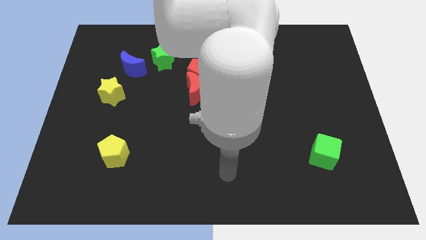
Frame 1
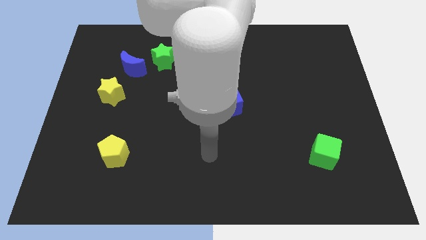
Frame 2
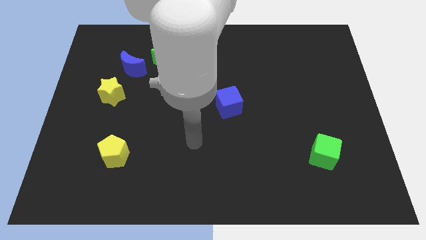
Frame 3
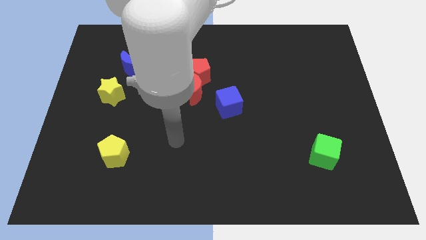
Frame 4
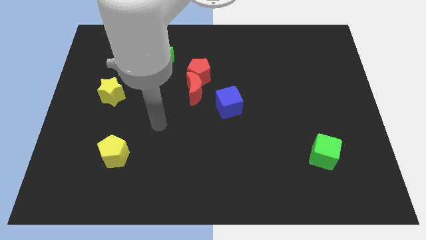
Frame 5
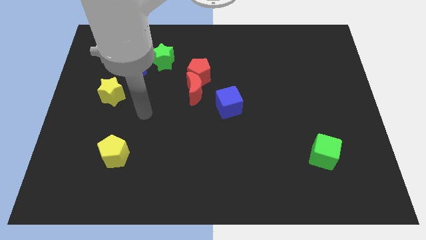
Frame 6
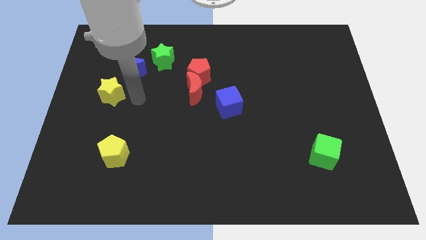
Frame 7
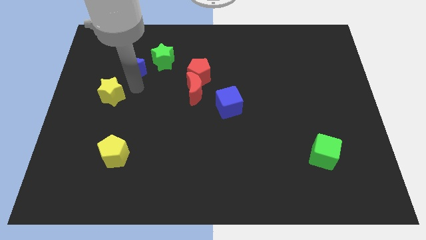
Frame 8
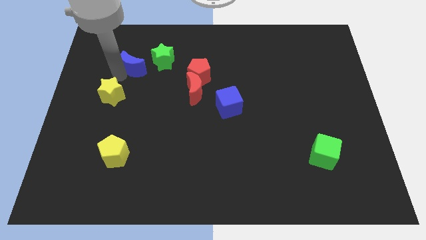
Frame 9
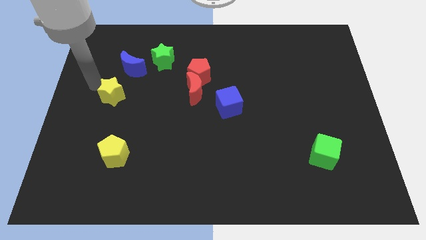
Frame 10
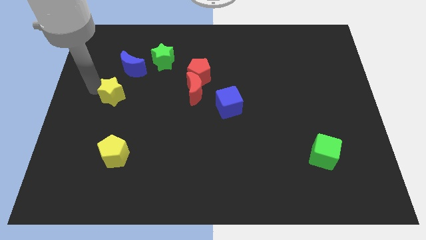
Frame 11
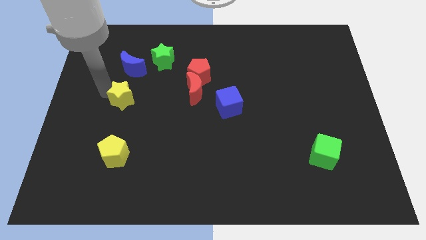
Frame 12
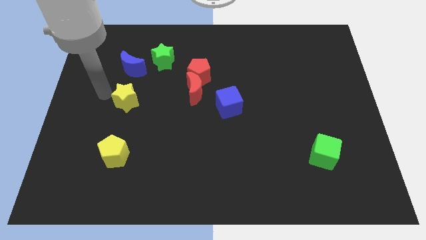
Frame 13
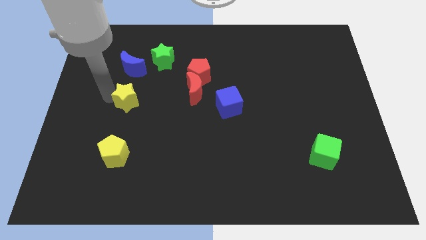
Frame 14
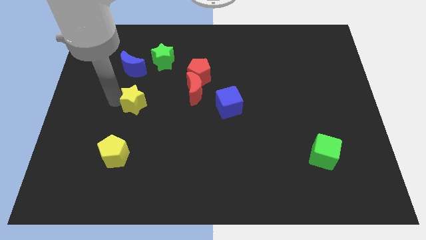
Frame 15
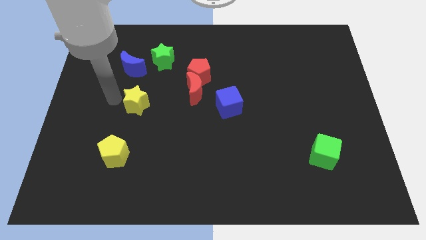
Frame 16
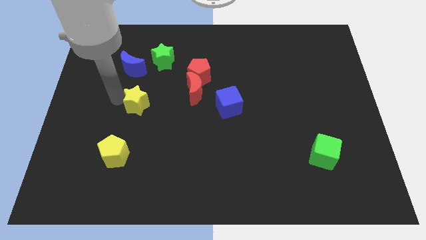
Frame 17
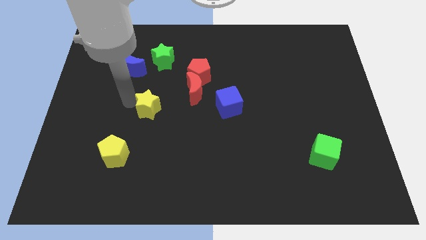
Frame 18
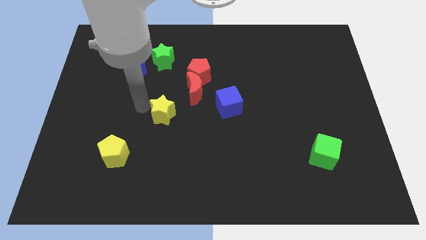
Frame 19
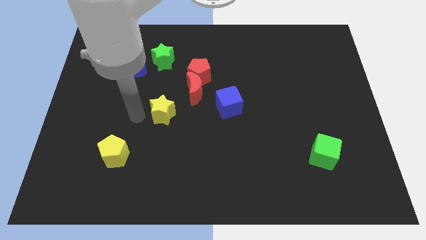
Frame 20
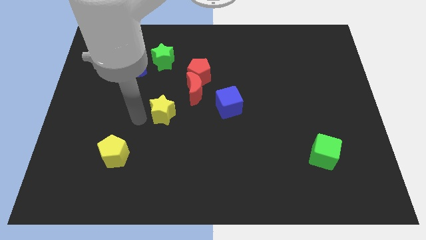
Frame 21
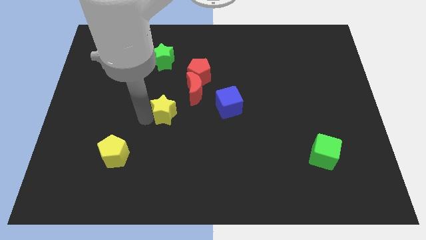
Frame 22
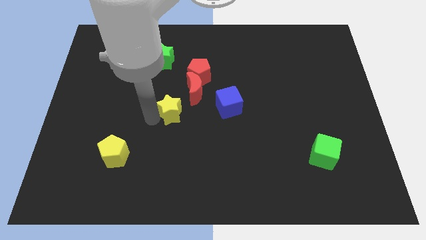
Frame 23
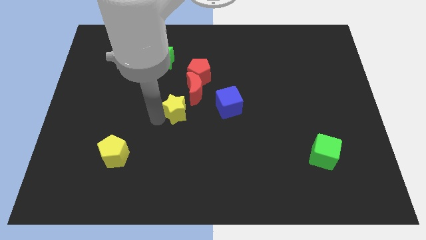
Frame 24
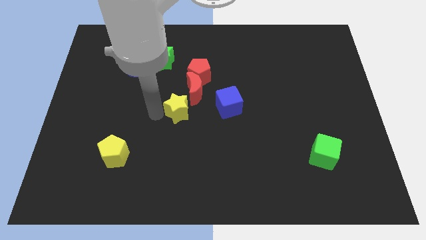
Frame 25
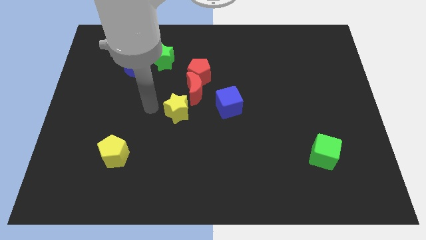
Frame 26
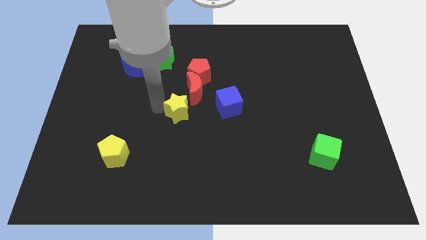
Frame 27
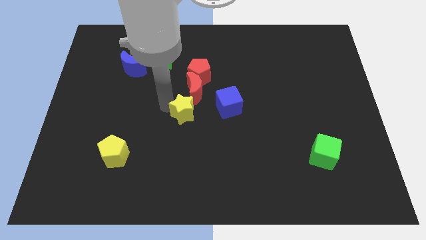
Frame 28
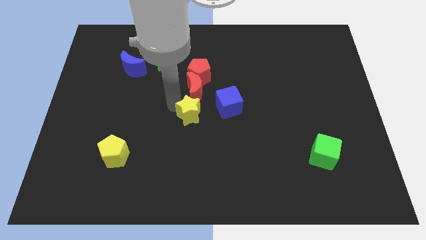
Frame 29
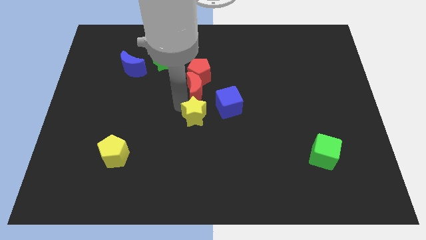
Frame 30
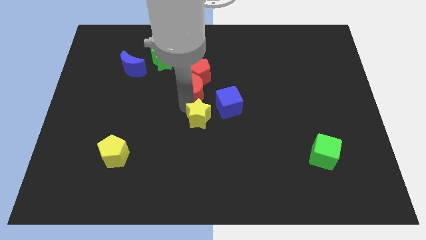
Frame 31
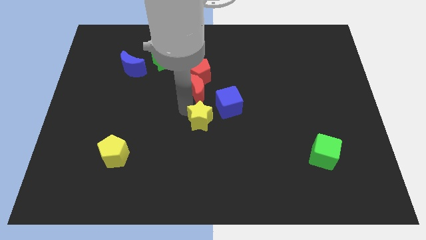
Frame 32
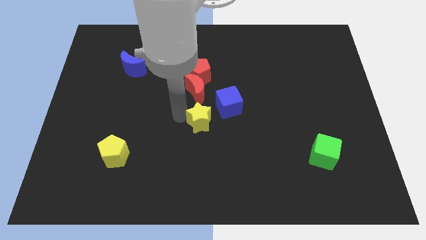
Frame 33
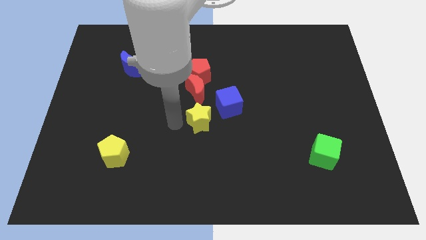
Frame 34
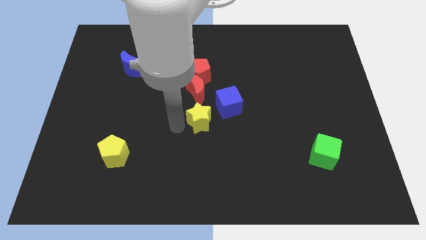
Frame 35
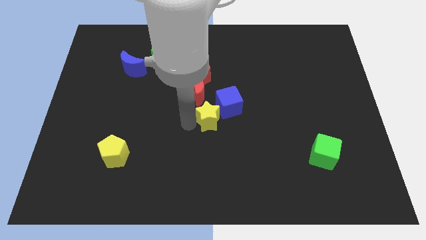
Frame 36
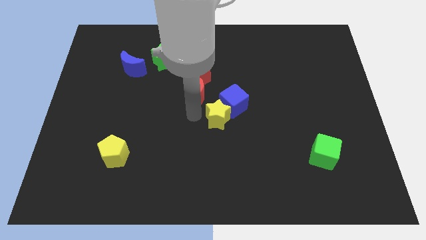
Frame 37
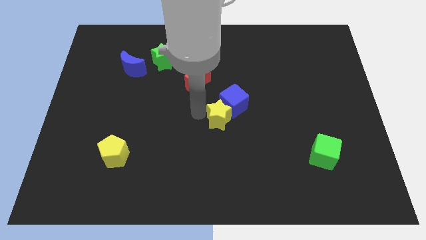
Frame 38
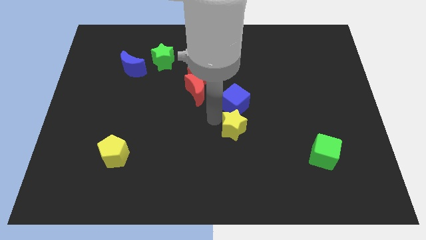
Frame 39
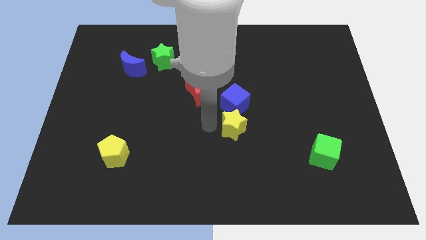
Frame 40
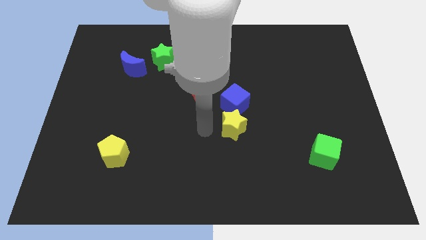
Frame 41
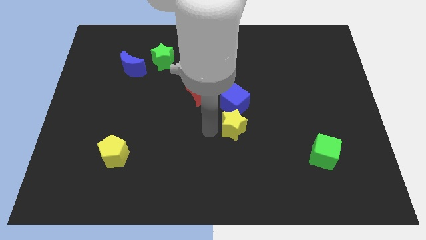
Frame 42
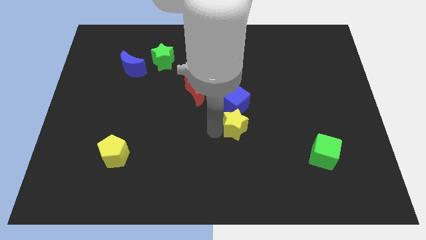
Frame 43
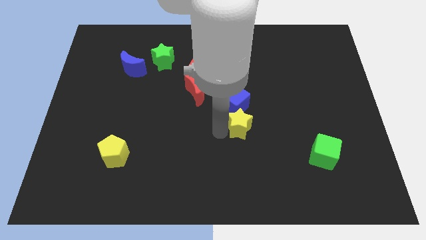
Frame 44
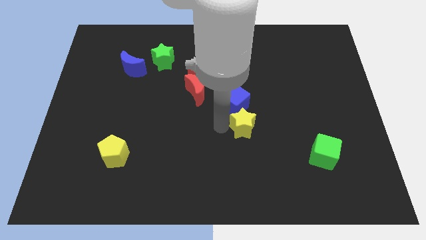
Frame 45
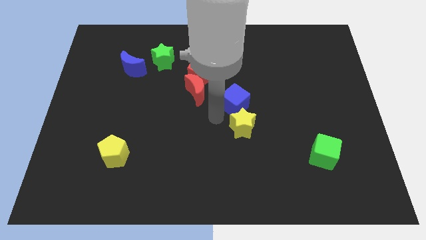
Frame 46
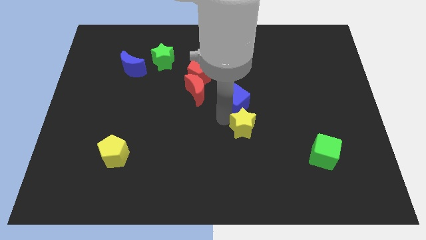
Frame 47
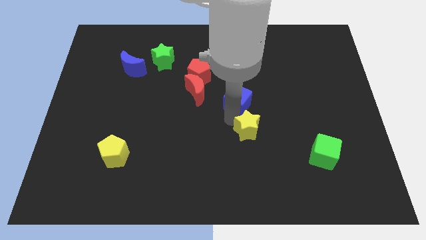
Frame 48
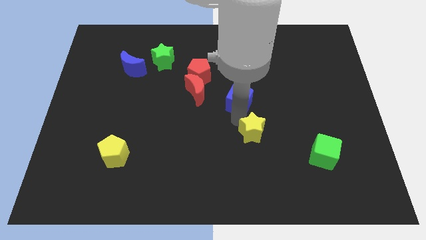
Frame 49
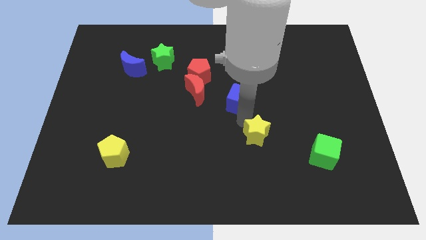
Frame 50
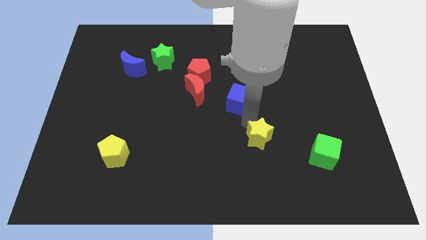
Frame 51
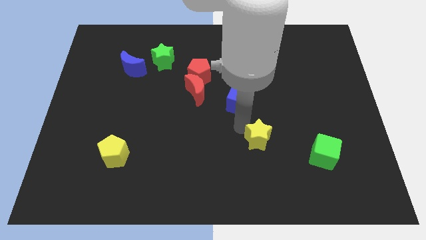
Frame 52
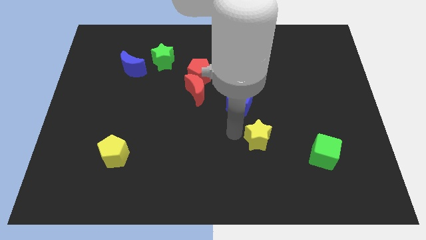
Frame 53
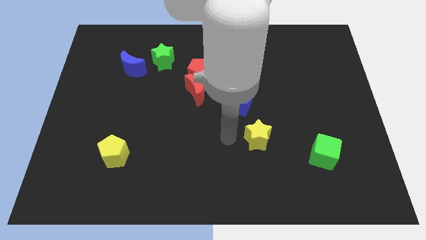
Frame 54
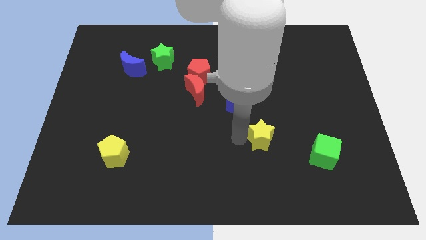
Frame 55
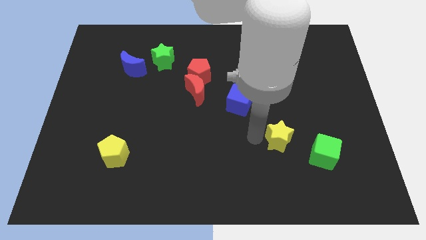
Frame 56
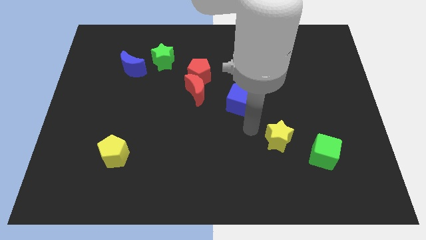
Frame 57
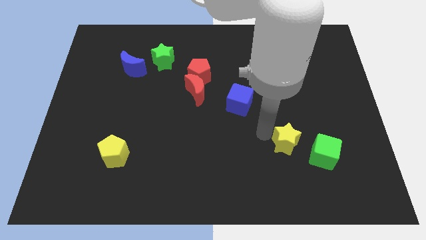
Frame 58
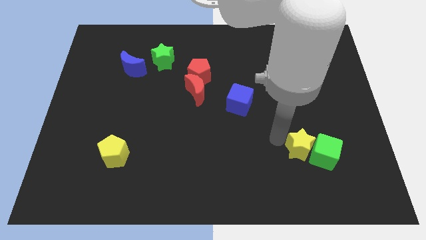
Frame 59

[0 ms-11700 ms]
move the yellow star close to the green cube

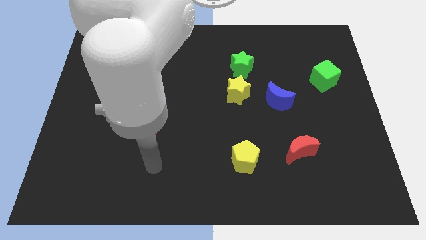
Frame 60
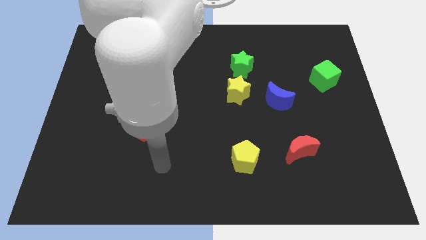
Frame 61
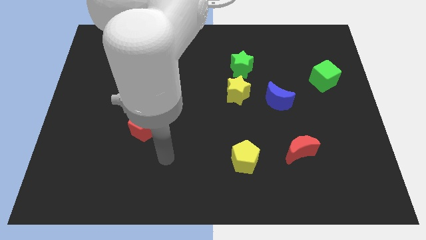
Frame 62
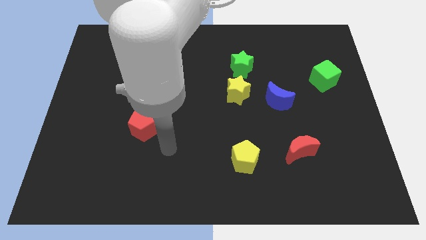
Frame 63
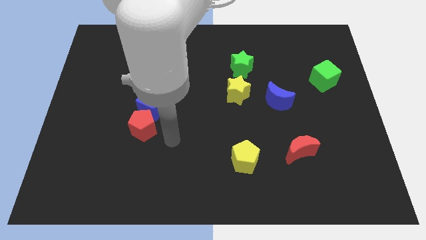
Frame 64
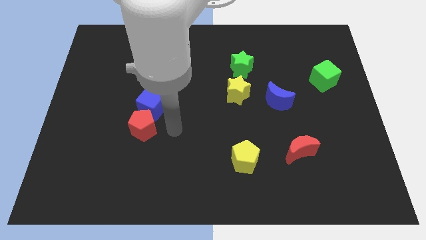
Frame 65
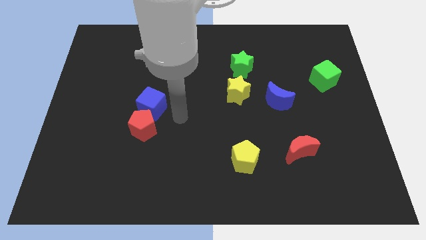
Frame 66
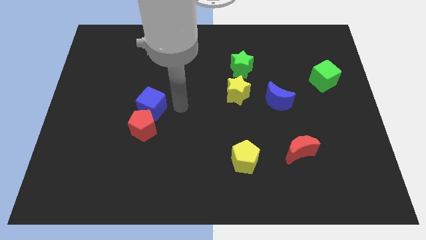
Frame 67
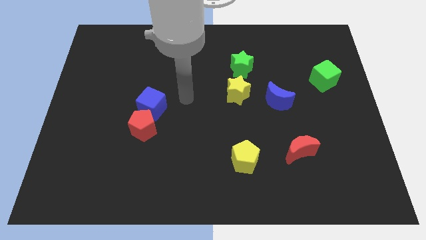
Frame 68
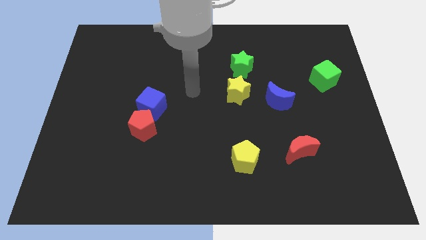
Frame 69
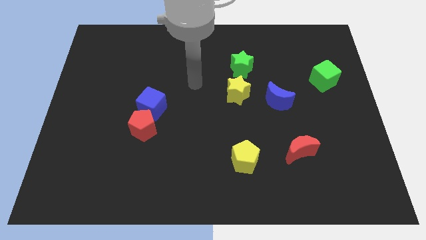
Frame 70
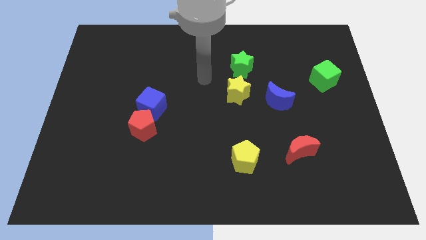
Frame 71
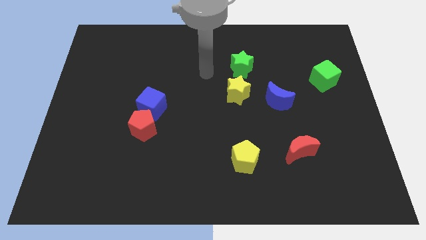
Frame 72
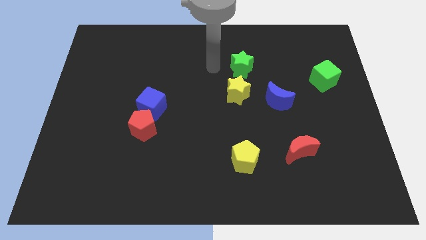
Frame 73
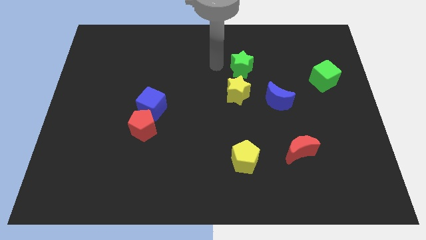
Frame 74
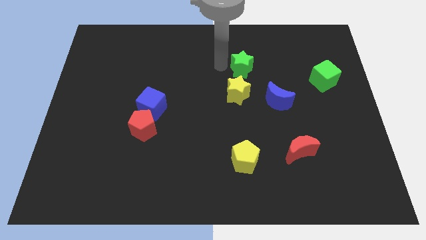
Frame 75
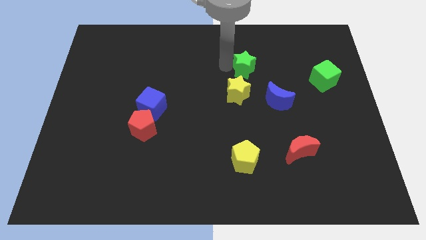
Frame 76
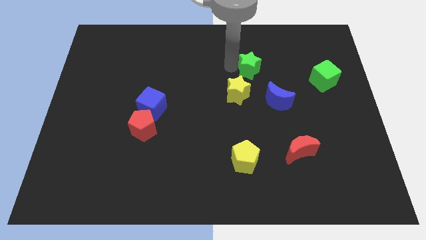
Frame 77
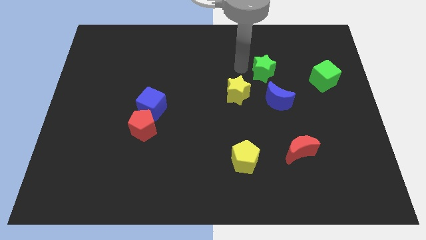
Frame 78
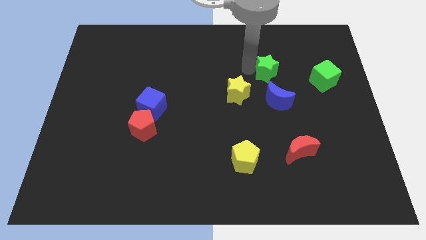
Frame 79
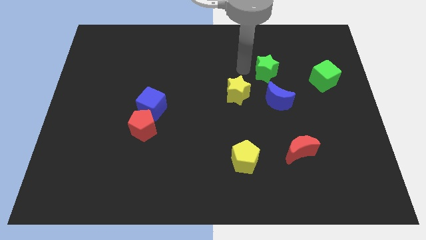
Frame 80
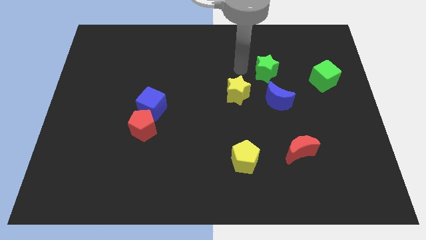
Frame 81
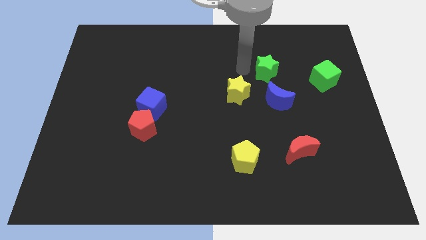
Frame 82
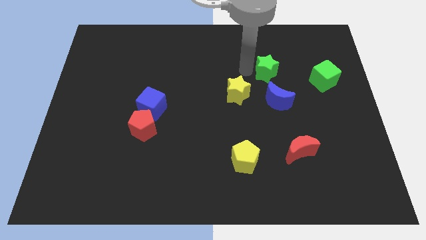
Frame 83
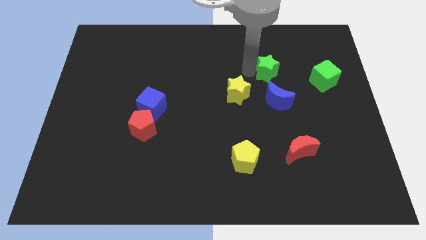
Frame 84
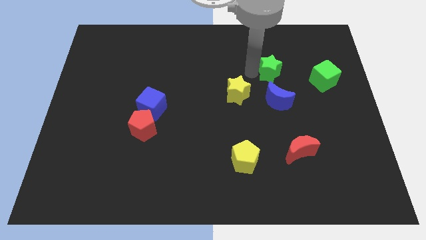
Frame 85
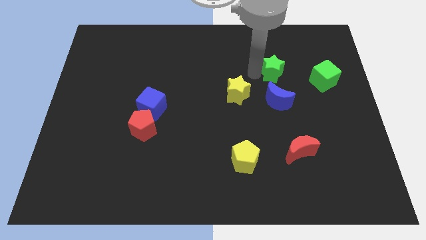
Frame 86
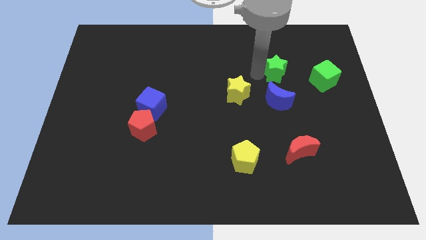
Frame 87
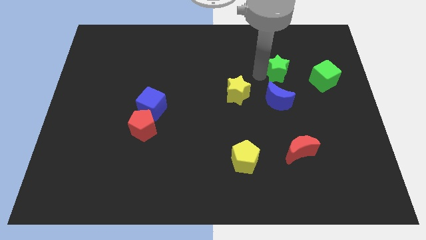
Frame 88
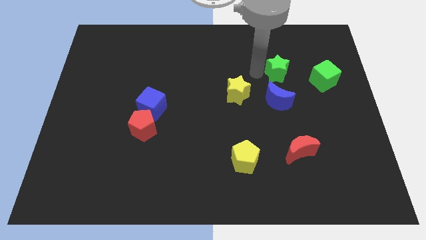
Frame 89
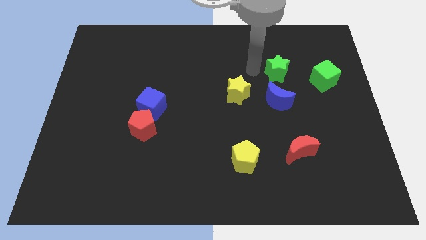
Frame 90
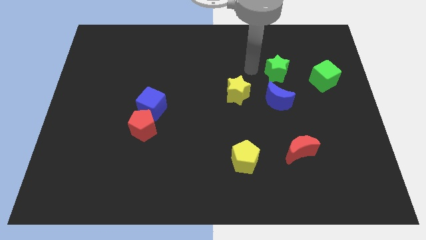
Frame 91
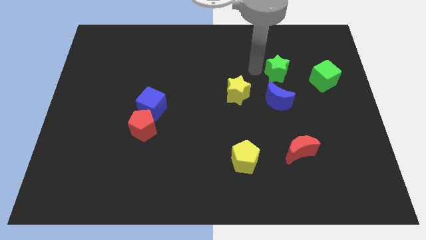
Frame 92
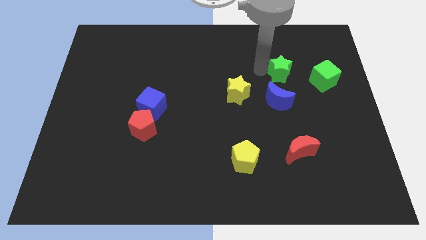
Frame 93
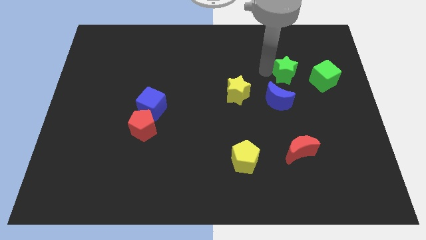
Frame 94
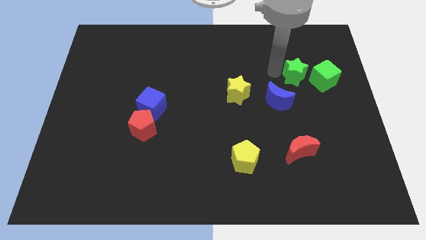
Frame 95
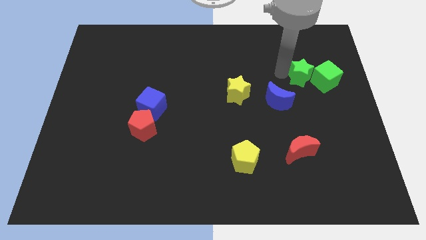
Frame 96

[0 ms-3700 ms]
push the green star towards the green cube
